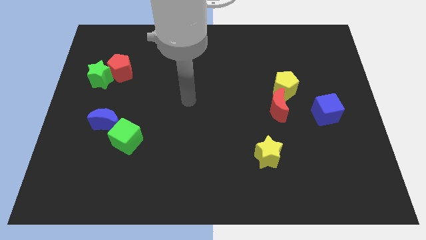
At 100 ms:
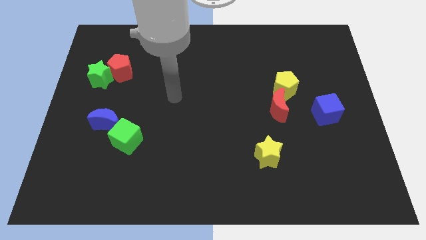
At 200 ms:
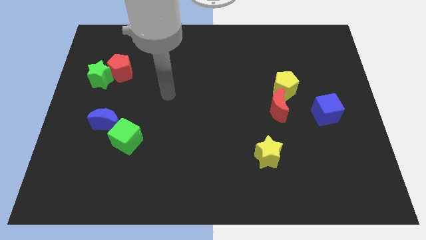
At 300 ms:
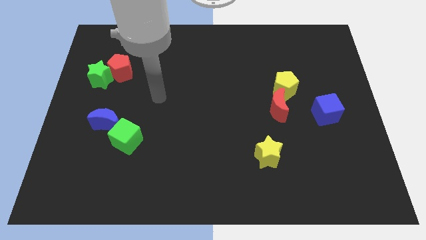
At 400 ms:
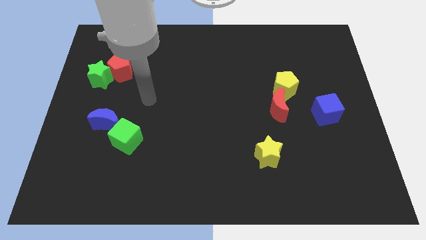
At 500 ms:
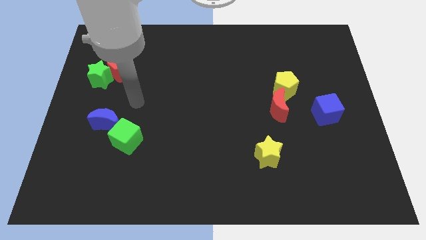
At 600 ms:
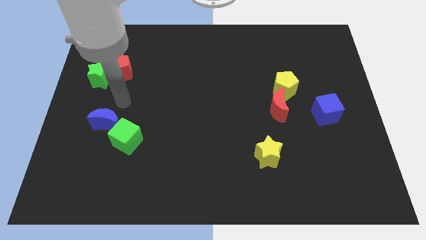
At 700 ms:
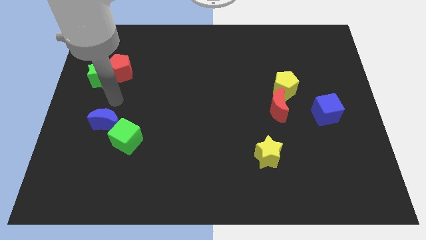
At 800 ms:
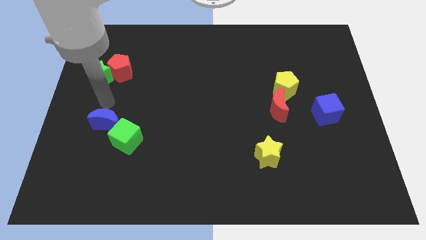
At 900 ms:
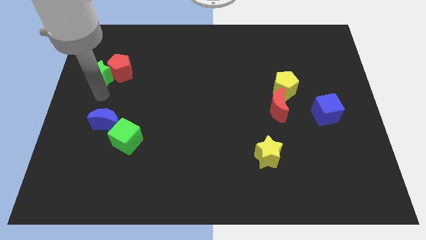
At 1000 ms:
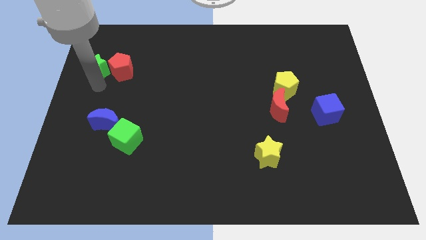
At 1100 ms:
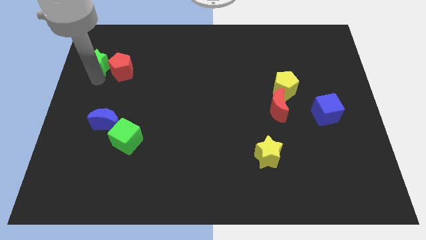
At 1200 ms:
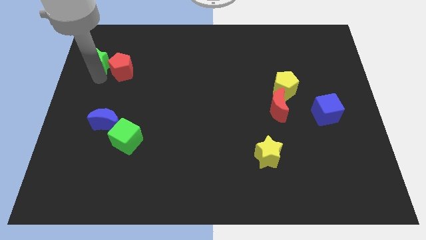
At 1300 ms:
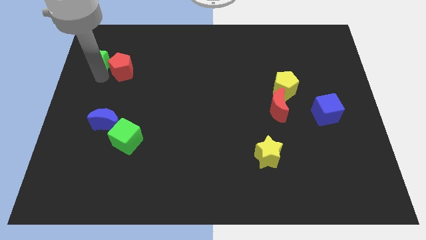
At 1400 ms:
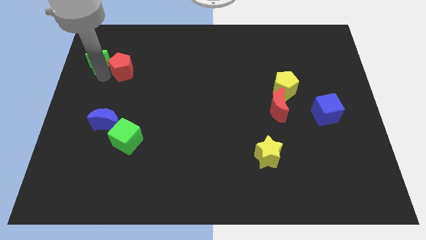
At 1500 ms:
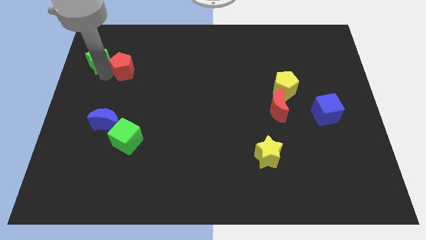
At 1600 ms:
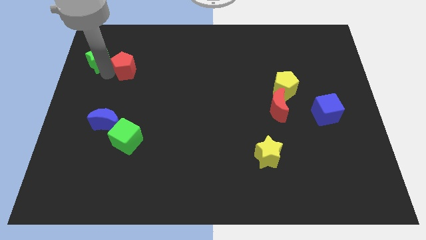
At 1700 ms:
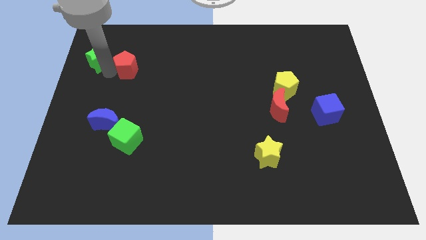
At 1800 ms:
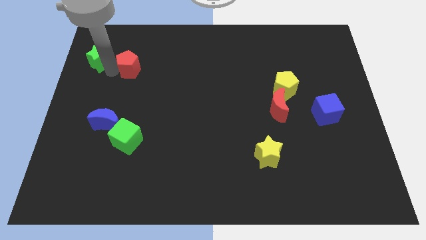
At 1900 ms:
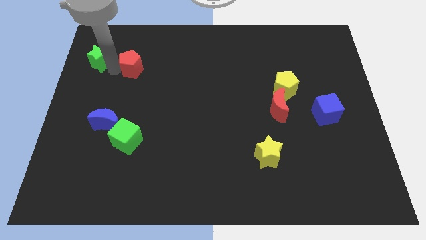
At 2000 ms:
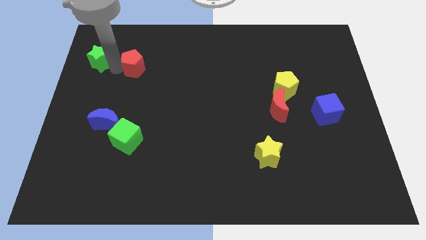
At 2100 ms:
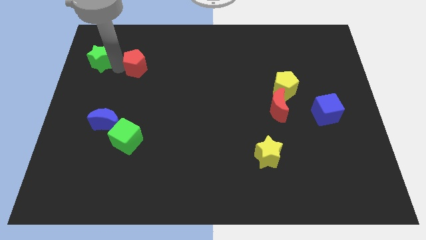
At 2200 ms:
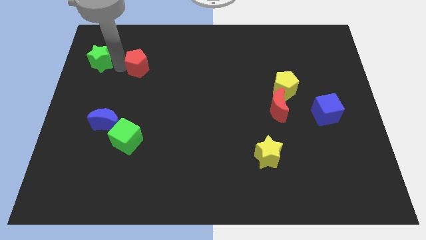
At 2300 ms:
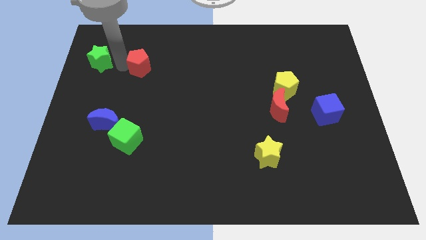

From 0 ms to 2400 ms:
separate the red pentagon from the green star

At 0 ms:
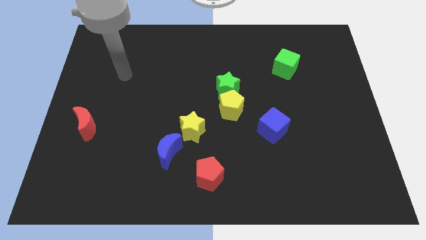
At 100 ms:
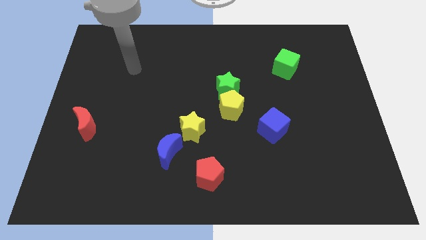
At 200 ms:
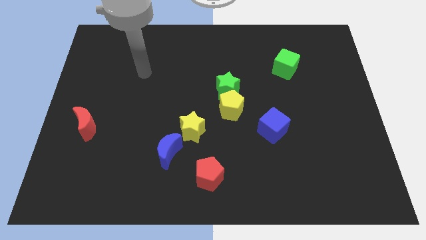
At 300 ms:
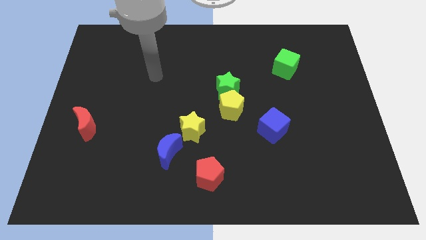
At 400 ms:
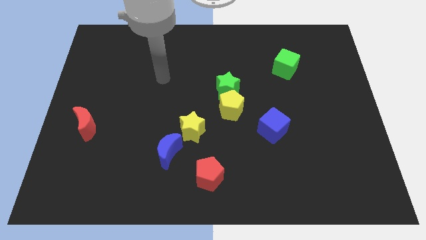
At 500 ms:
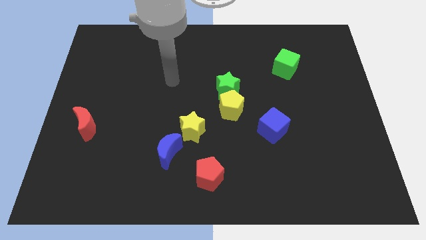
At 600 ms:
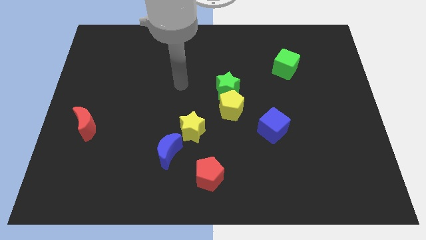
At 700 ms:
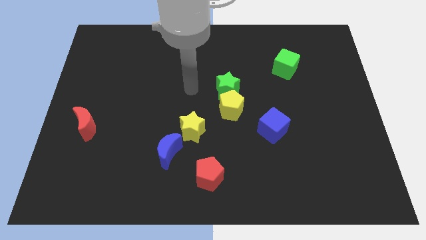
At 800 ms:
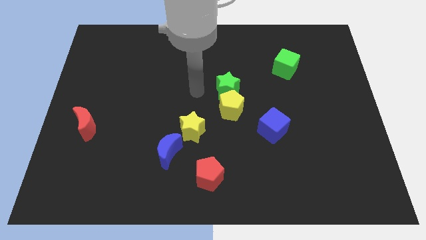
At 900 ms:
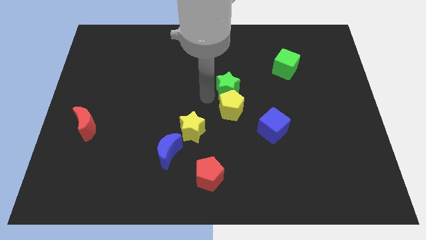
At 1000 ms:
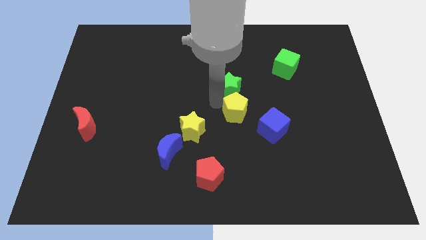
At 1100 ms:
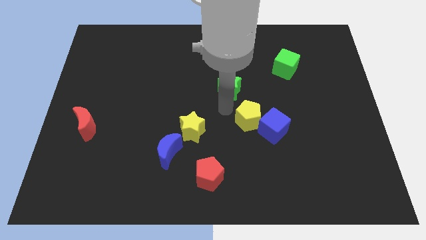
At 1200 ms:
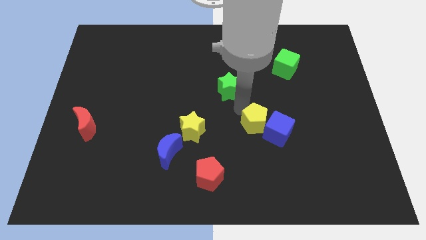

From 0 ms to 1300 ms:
pull the green star apart from the yellow pentagon

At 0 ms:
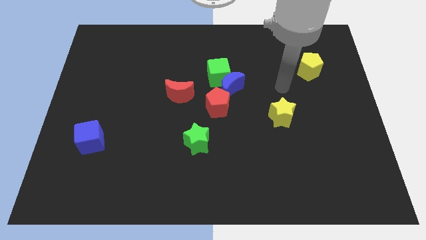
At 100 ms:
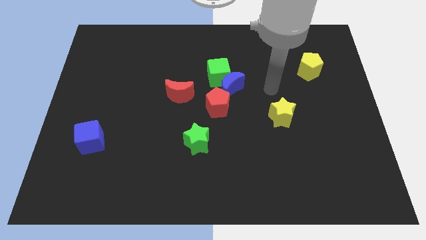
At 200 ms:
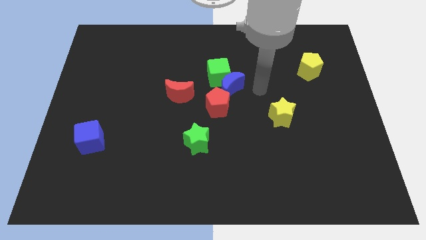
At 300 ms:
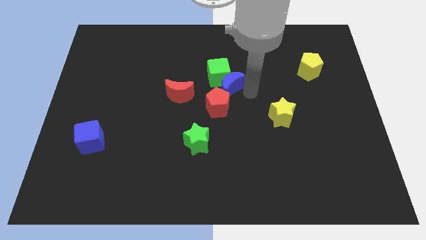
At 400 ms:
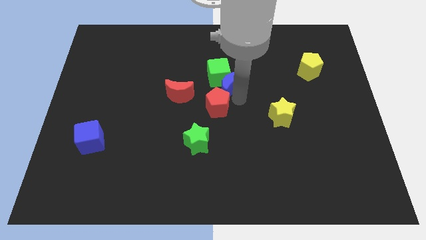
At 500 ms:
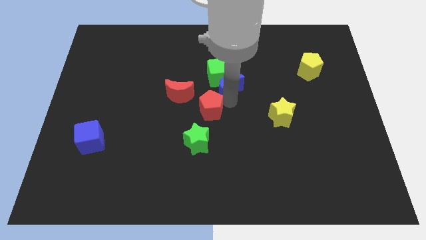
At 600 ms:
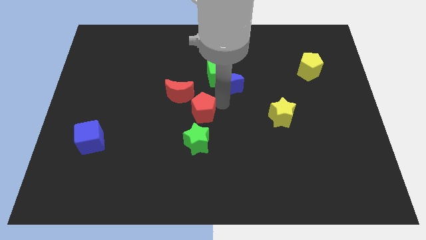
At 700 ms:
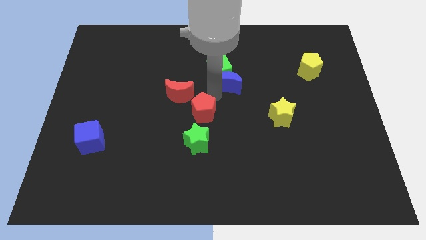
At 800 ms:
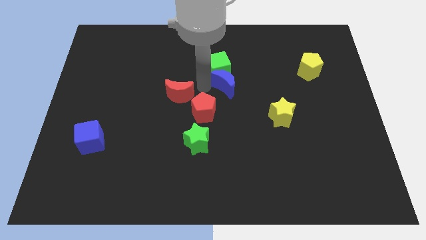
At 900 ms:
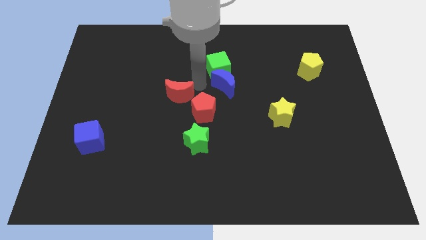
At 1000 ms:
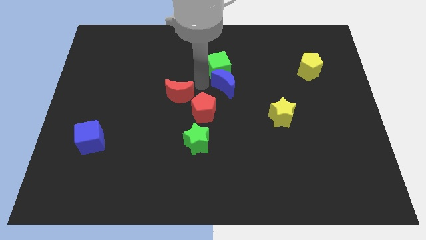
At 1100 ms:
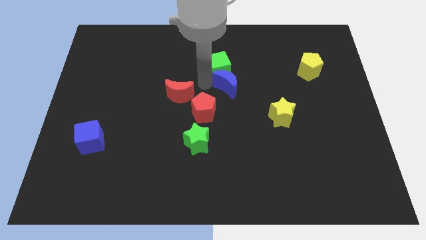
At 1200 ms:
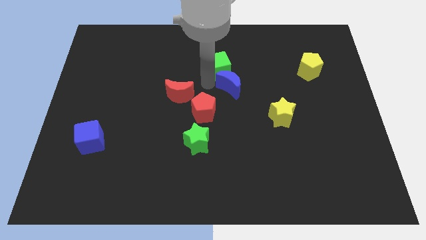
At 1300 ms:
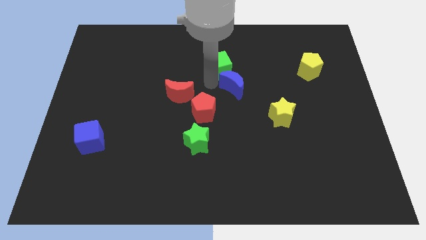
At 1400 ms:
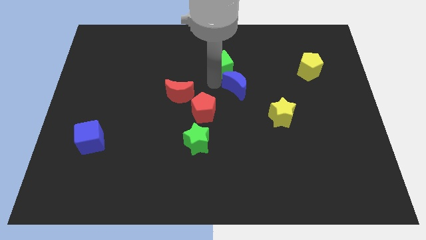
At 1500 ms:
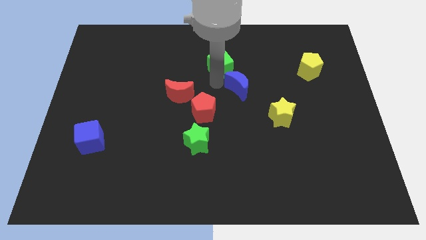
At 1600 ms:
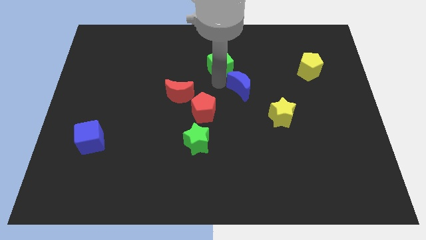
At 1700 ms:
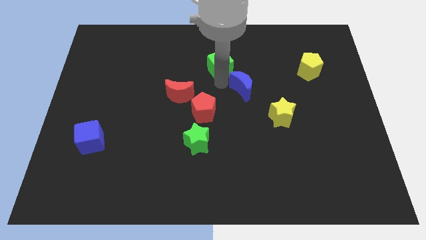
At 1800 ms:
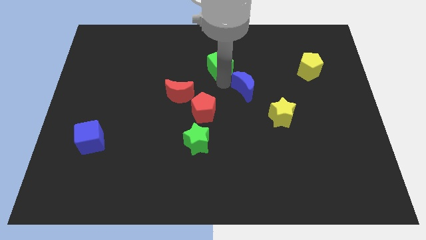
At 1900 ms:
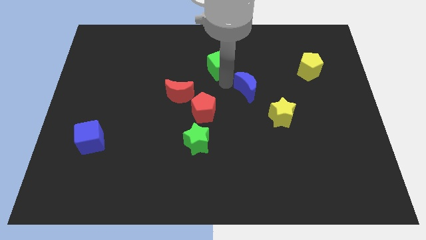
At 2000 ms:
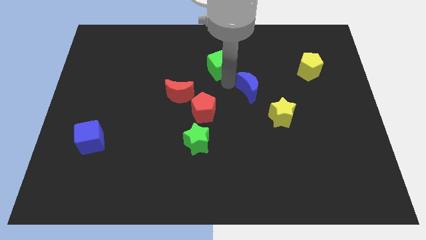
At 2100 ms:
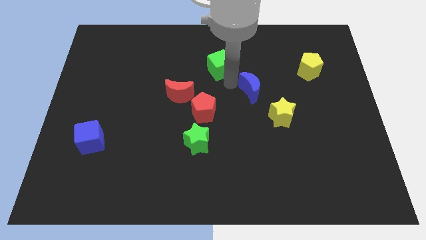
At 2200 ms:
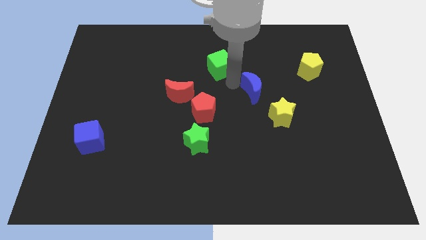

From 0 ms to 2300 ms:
separate the blue moon from the green cube and red pentagon

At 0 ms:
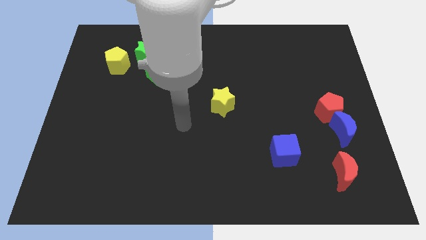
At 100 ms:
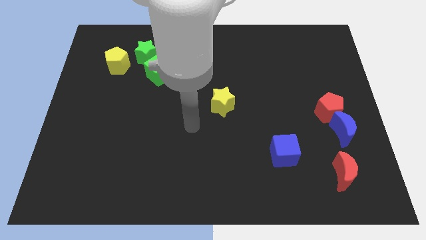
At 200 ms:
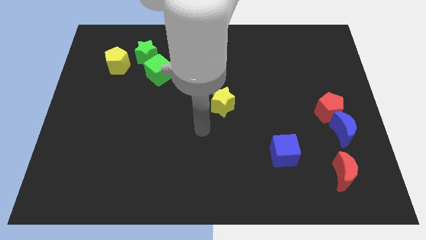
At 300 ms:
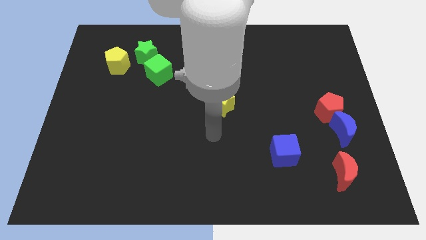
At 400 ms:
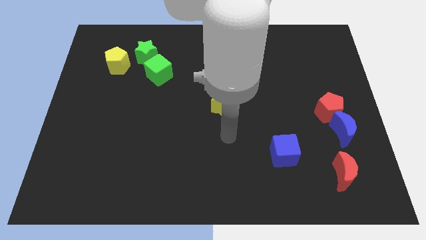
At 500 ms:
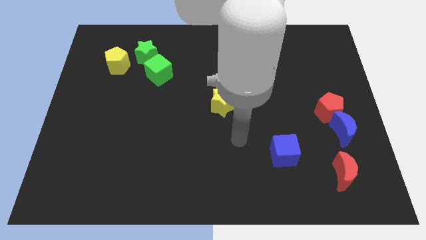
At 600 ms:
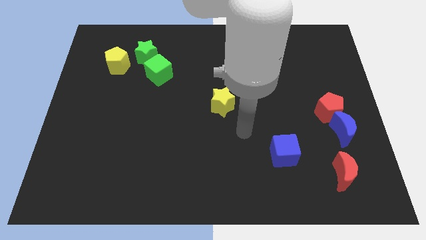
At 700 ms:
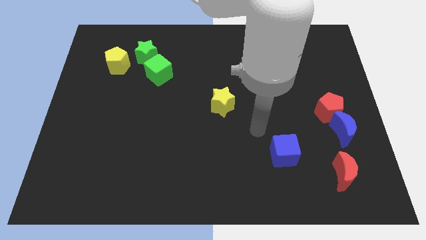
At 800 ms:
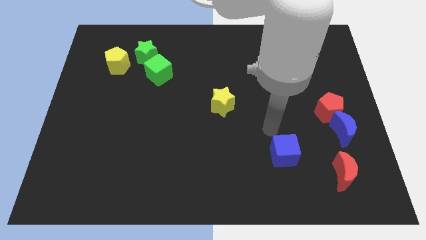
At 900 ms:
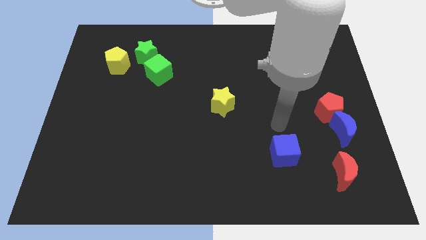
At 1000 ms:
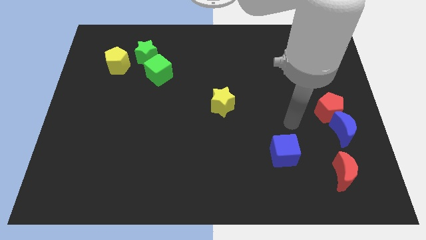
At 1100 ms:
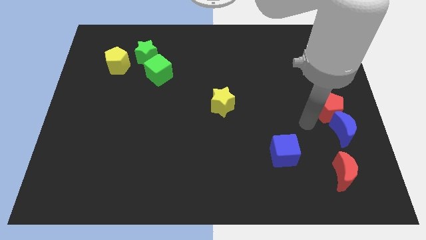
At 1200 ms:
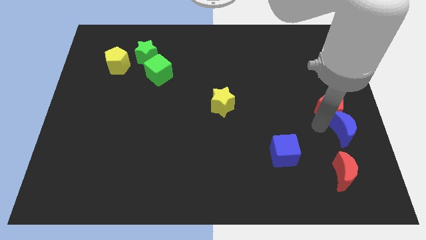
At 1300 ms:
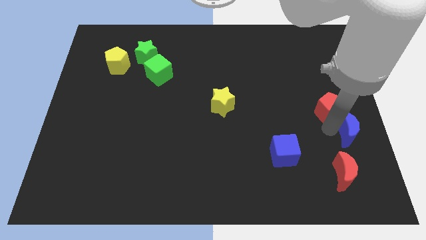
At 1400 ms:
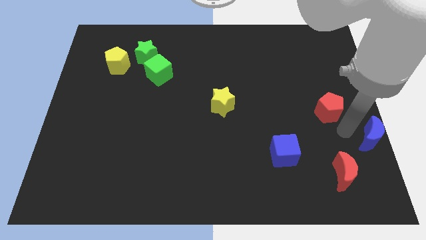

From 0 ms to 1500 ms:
separate the red pentagon from the blue moon

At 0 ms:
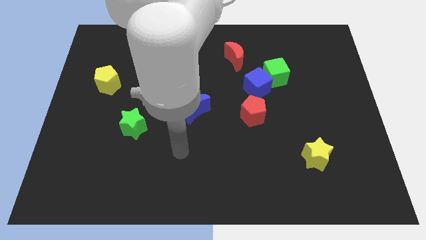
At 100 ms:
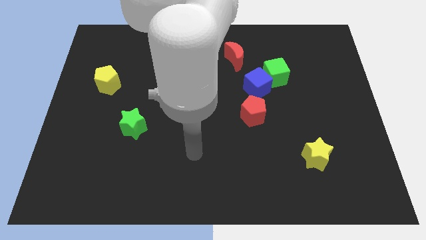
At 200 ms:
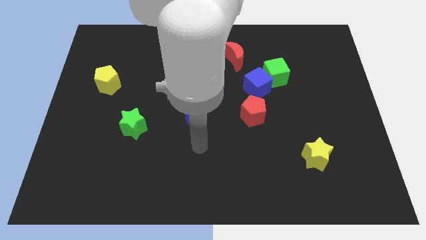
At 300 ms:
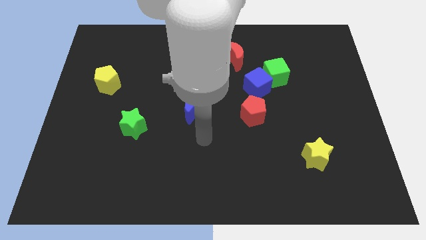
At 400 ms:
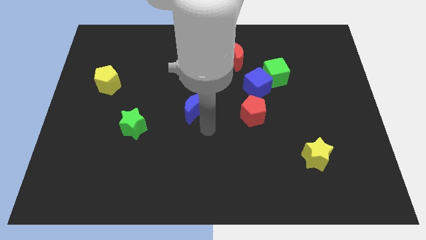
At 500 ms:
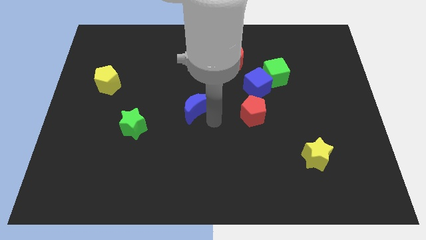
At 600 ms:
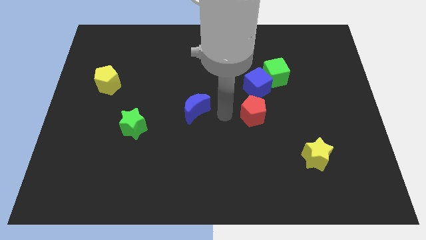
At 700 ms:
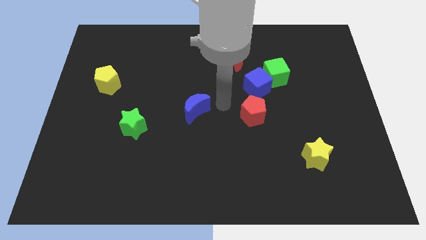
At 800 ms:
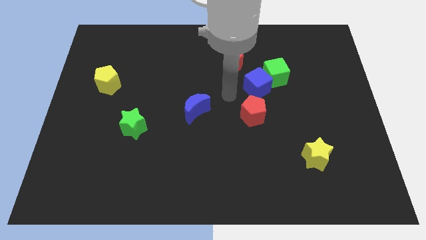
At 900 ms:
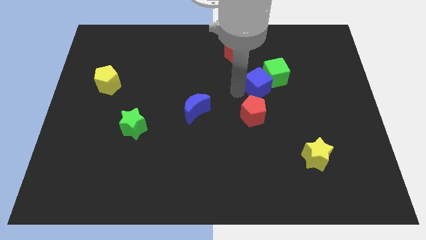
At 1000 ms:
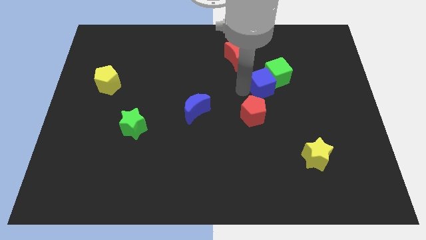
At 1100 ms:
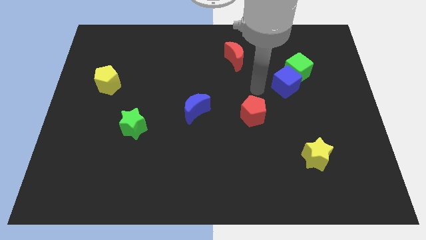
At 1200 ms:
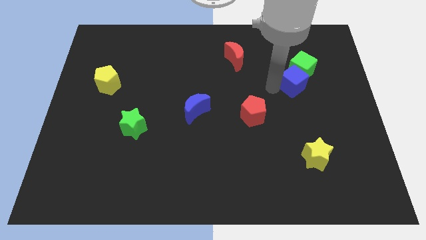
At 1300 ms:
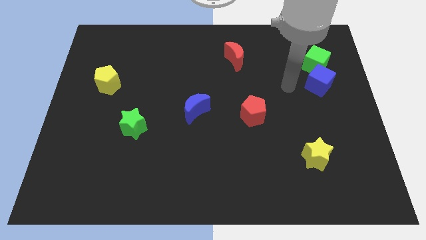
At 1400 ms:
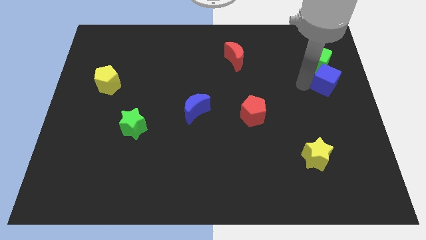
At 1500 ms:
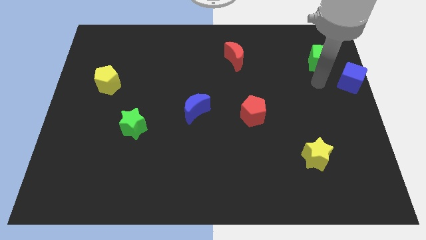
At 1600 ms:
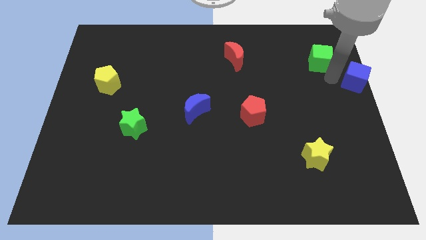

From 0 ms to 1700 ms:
move the green cube away from the blue cube

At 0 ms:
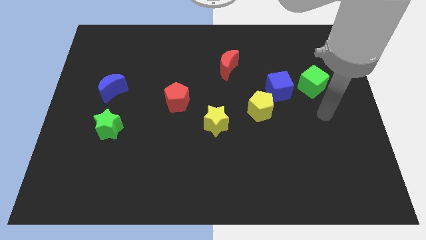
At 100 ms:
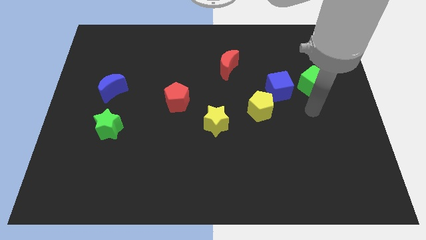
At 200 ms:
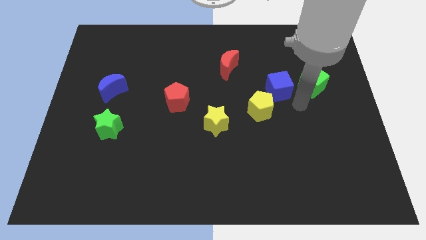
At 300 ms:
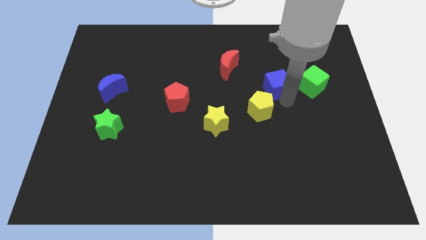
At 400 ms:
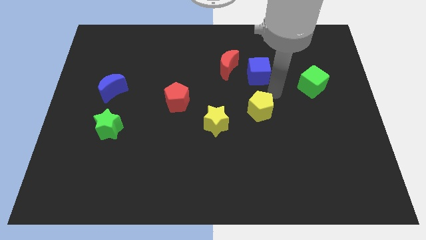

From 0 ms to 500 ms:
pull the yellow pentagon apart from the blue cube
